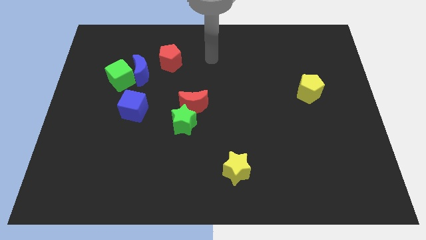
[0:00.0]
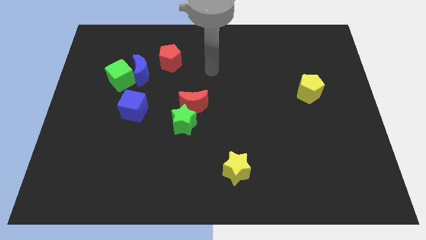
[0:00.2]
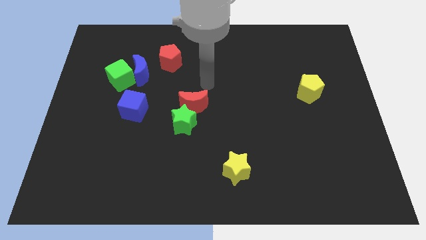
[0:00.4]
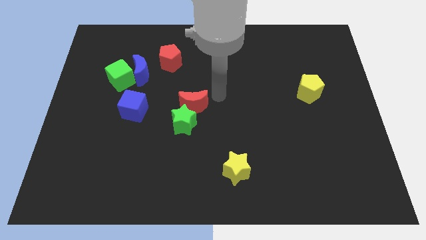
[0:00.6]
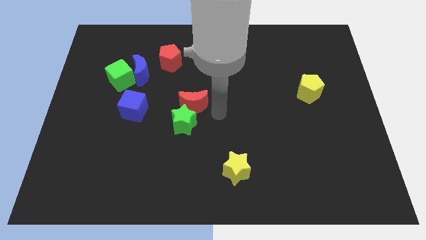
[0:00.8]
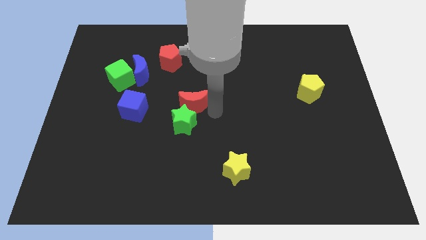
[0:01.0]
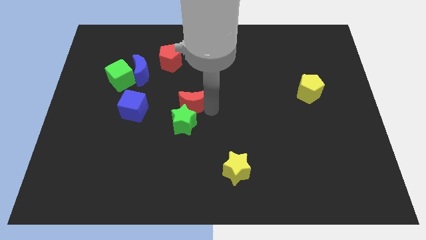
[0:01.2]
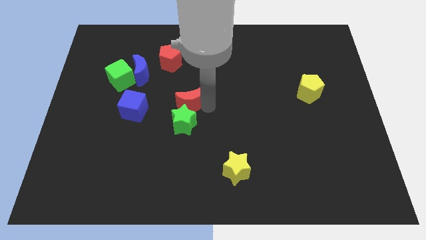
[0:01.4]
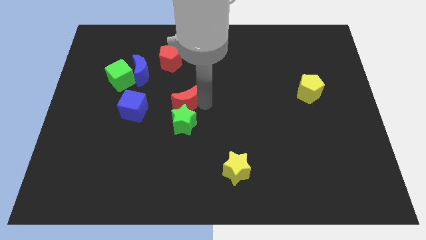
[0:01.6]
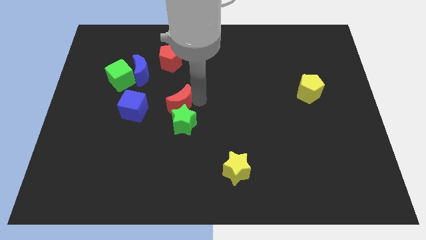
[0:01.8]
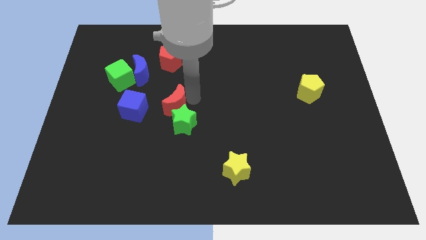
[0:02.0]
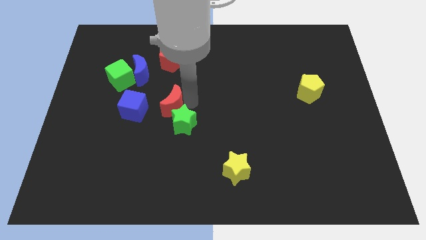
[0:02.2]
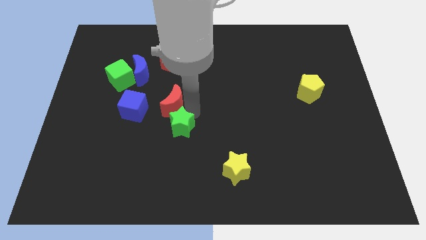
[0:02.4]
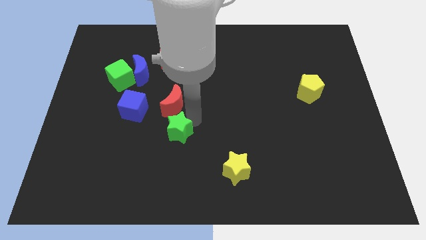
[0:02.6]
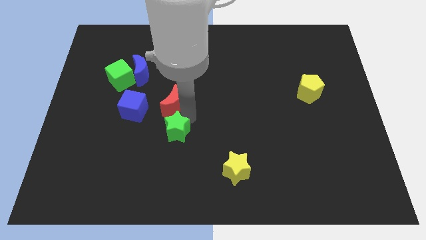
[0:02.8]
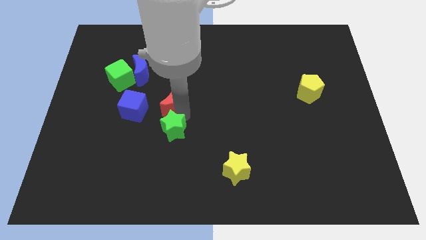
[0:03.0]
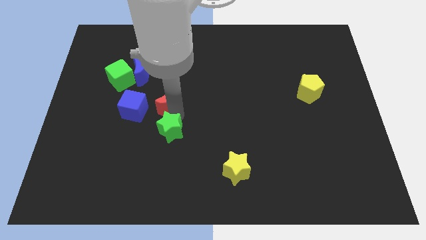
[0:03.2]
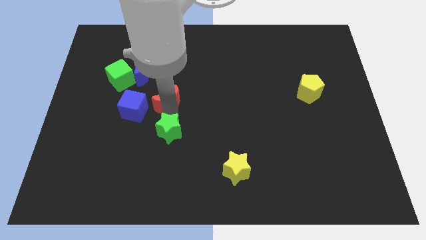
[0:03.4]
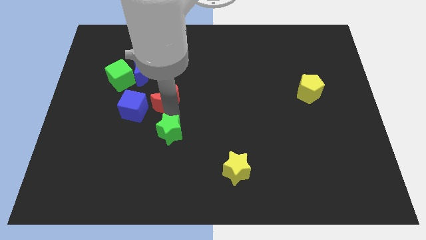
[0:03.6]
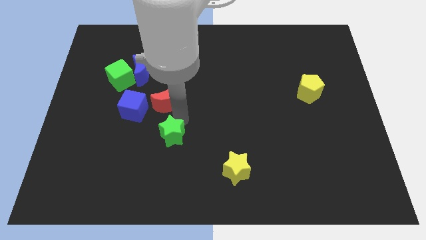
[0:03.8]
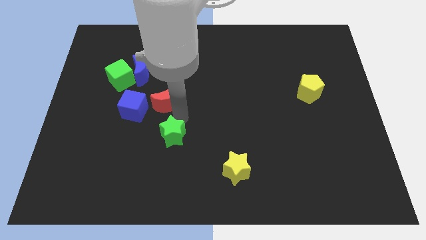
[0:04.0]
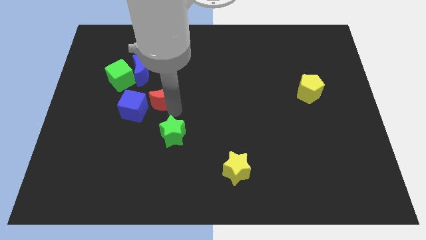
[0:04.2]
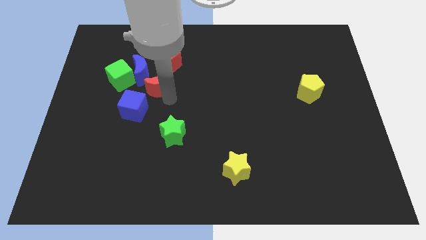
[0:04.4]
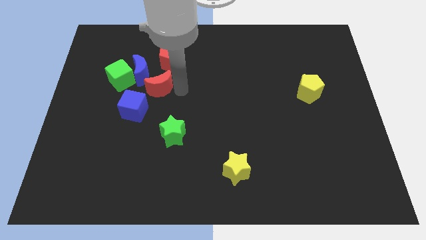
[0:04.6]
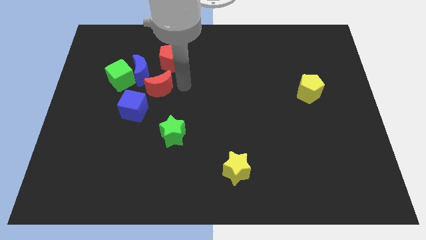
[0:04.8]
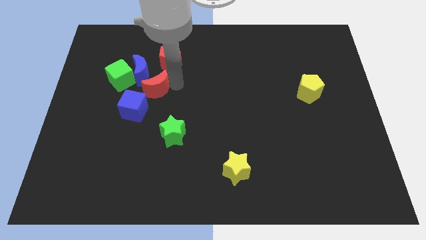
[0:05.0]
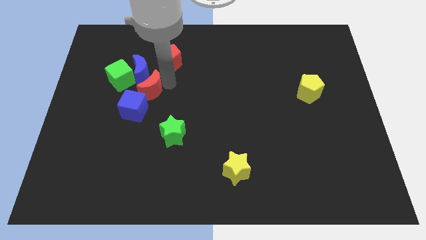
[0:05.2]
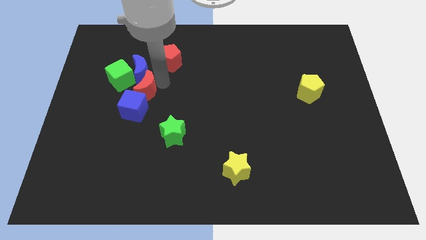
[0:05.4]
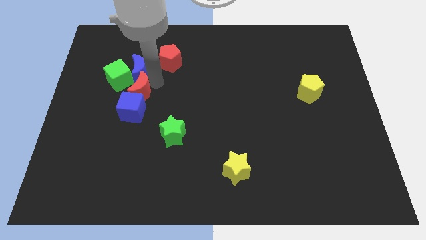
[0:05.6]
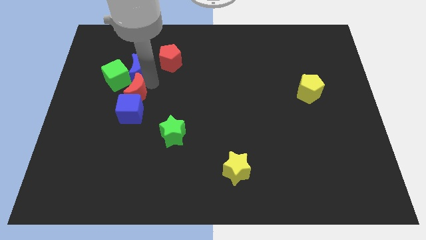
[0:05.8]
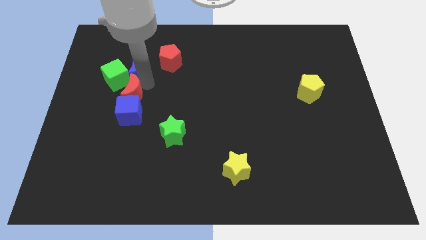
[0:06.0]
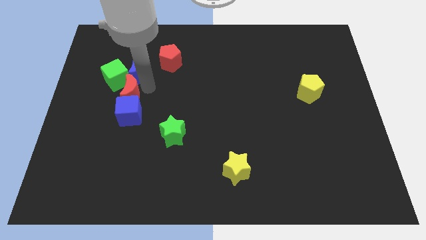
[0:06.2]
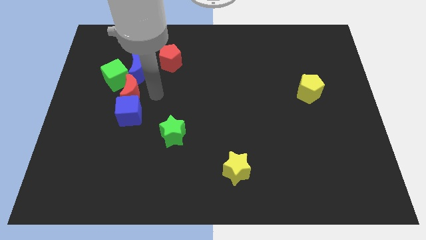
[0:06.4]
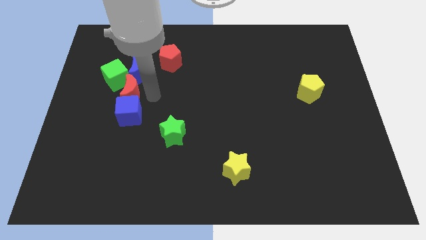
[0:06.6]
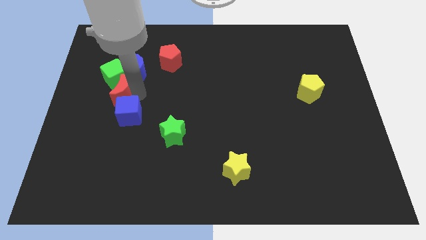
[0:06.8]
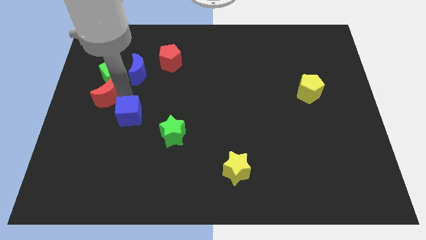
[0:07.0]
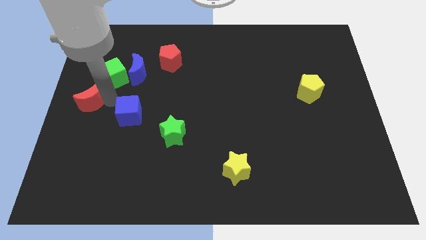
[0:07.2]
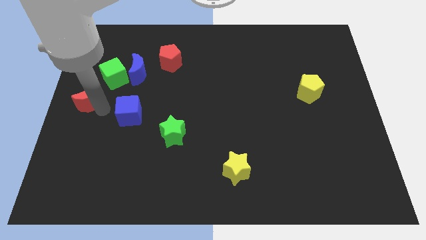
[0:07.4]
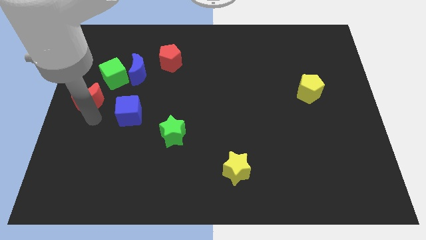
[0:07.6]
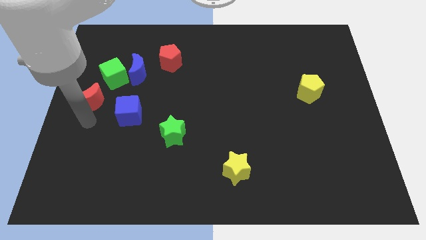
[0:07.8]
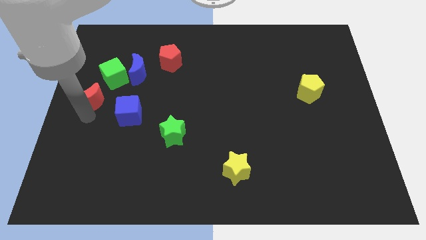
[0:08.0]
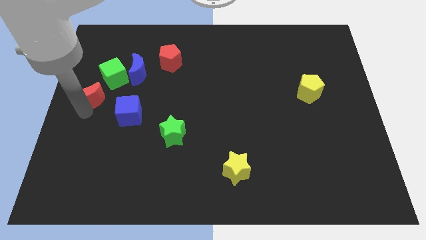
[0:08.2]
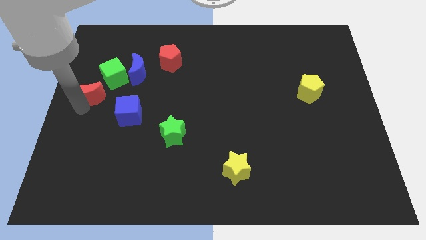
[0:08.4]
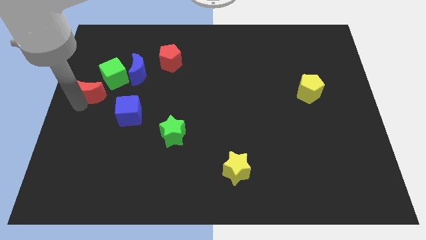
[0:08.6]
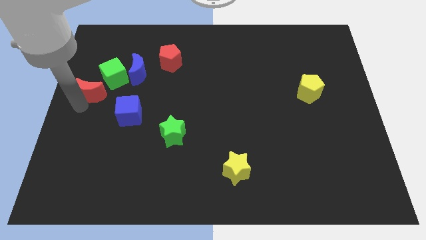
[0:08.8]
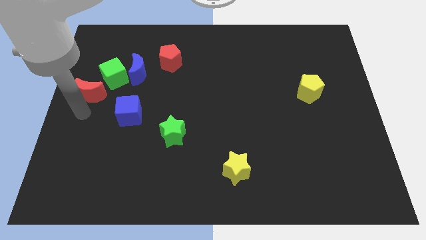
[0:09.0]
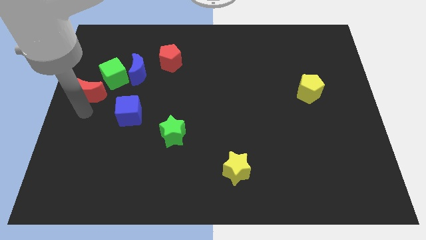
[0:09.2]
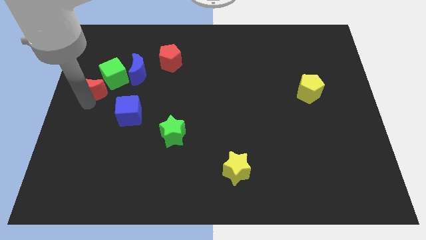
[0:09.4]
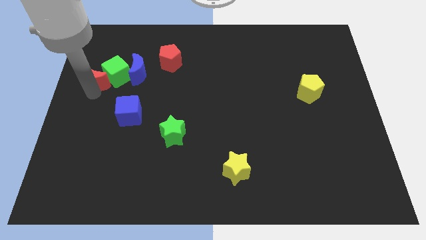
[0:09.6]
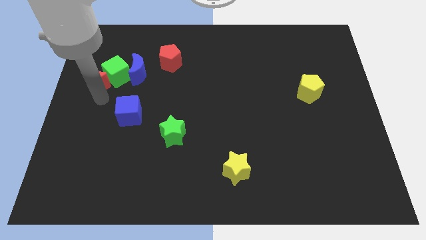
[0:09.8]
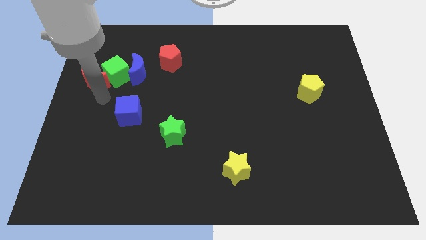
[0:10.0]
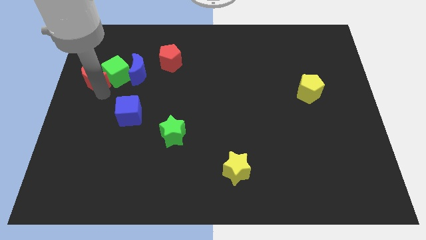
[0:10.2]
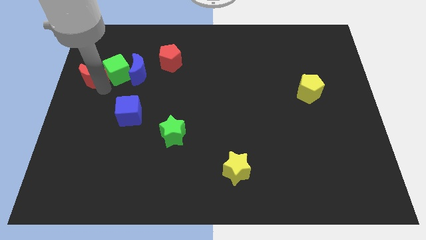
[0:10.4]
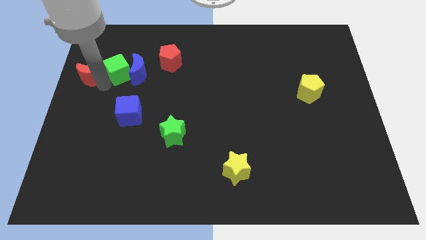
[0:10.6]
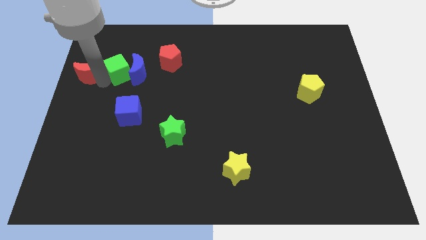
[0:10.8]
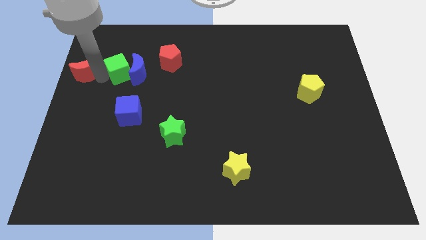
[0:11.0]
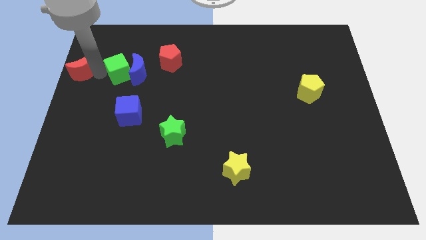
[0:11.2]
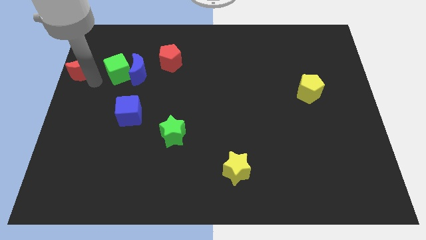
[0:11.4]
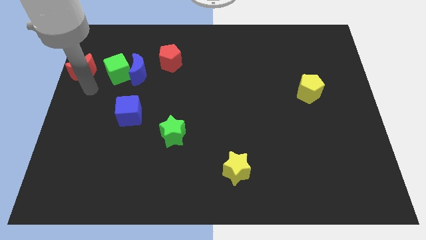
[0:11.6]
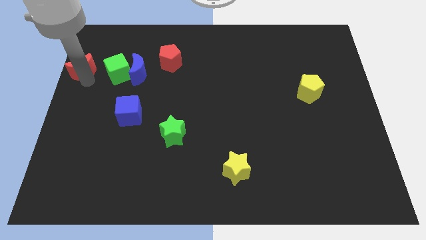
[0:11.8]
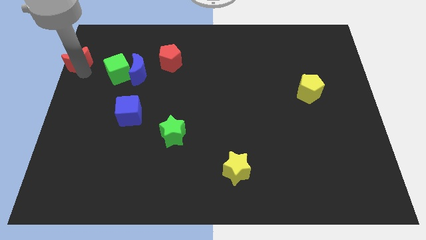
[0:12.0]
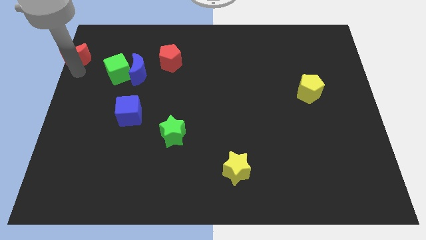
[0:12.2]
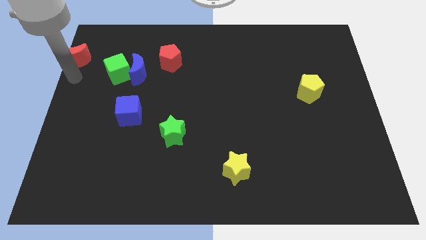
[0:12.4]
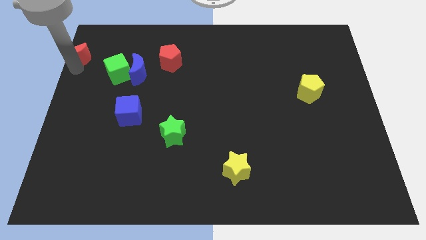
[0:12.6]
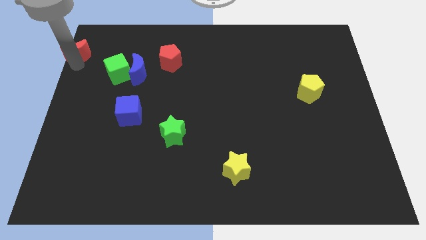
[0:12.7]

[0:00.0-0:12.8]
move the red moon to the upper left corner

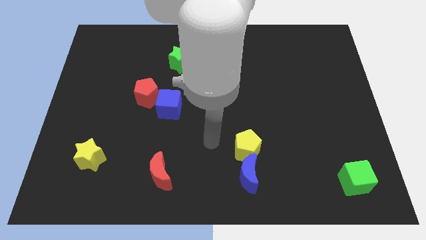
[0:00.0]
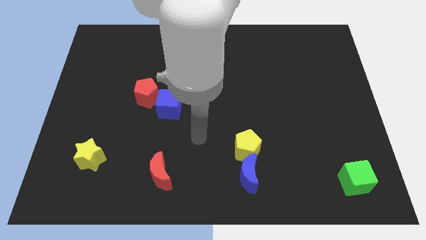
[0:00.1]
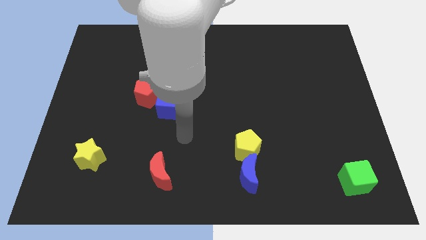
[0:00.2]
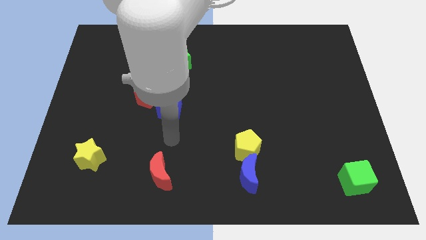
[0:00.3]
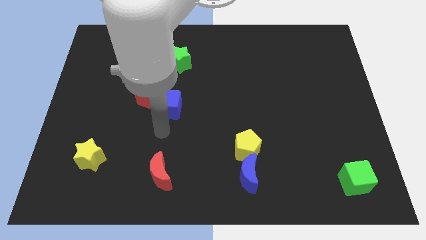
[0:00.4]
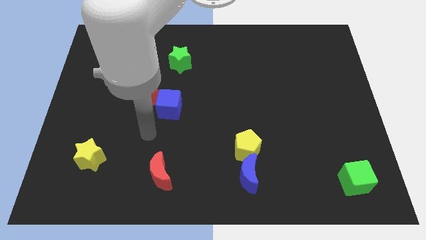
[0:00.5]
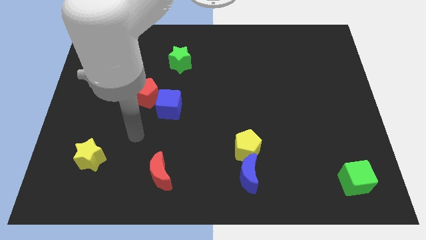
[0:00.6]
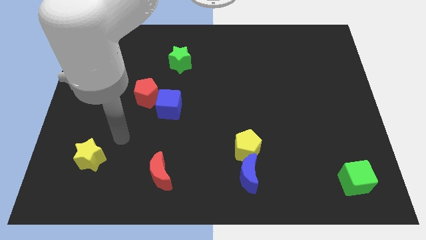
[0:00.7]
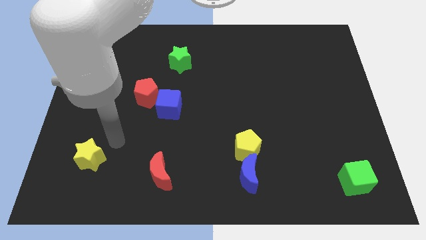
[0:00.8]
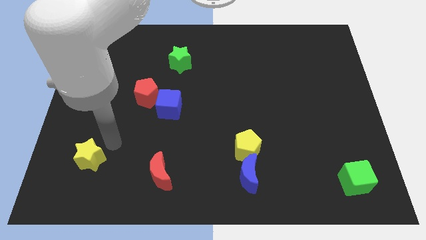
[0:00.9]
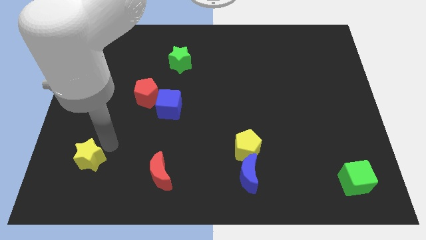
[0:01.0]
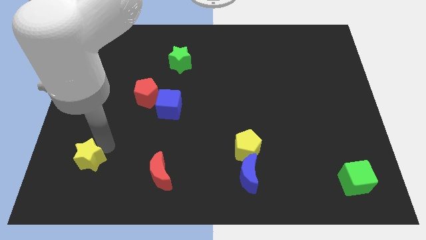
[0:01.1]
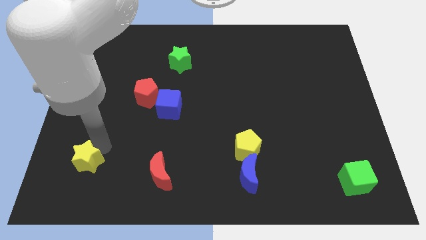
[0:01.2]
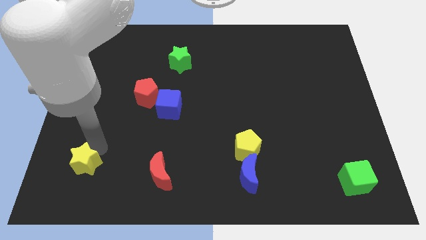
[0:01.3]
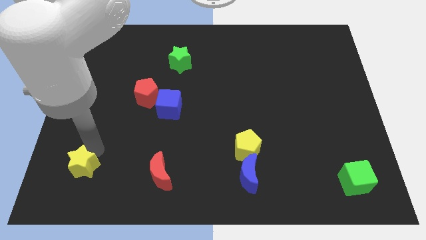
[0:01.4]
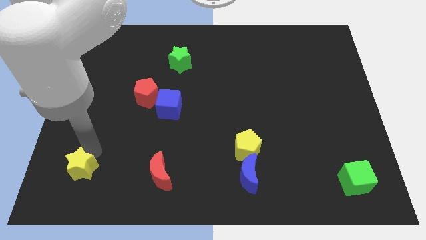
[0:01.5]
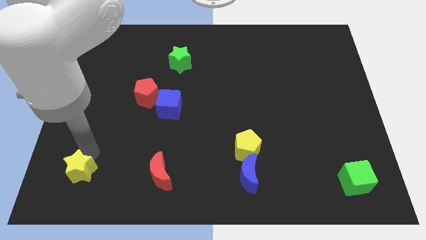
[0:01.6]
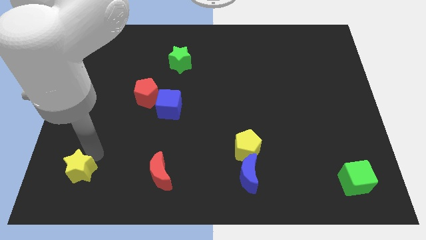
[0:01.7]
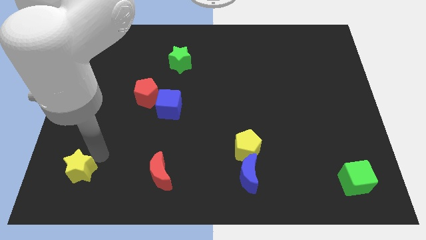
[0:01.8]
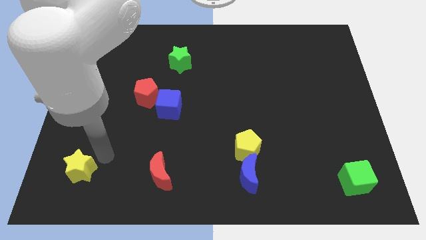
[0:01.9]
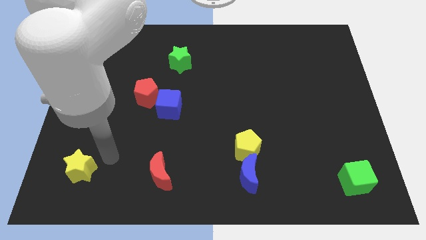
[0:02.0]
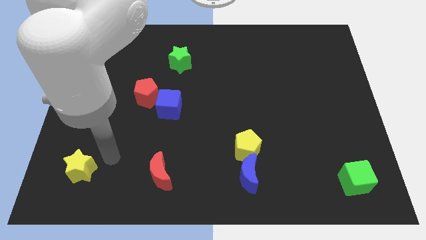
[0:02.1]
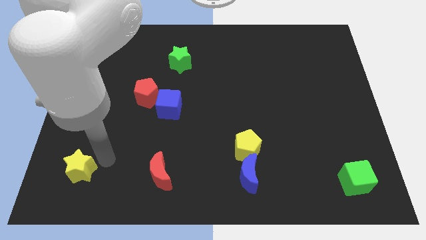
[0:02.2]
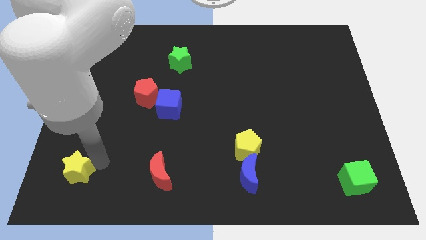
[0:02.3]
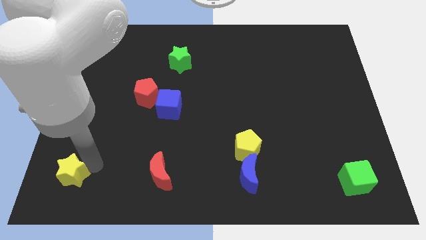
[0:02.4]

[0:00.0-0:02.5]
push the yellow star to the bottom left corner
